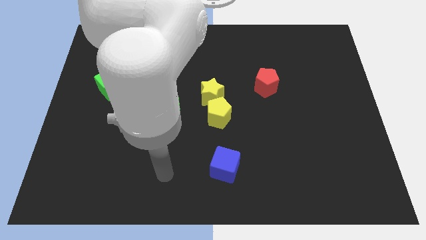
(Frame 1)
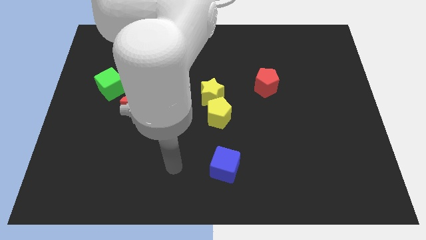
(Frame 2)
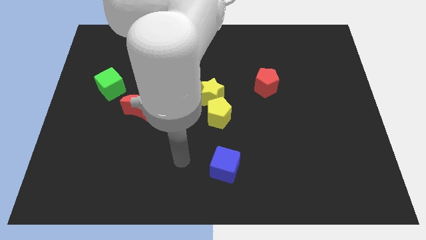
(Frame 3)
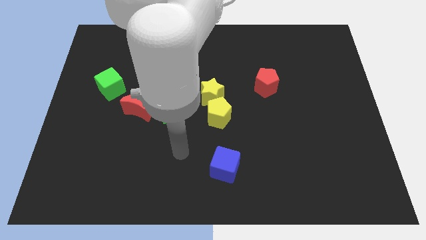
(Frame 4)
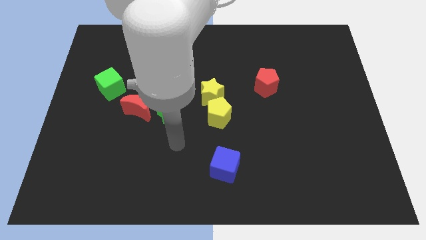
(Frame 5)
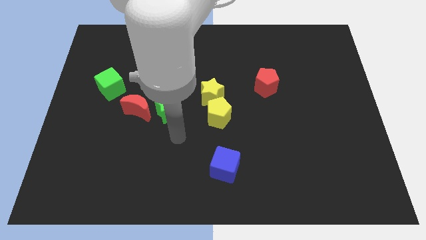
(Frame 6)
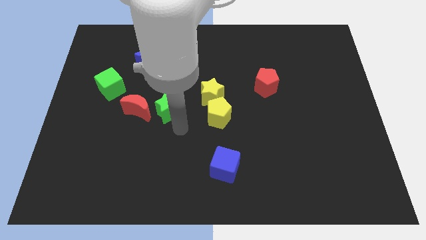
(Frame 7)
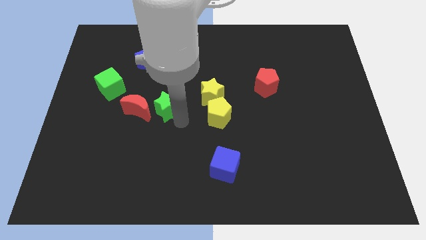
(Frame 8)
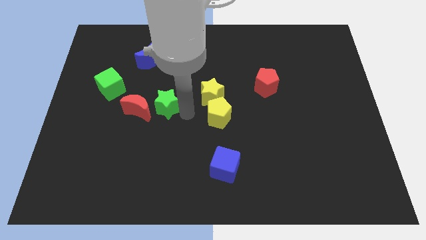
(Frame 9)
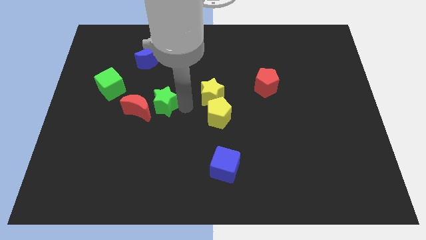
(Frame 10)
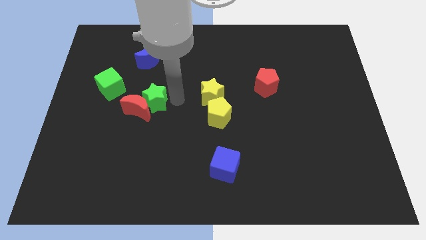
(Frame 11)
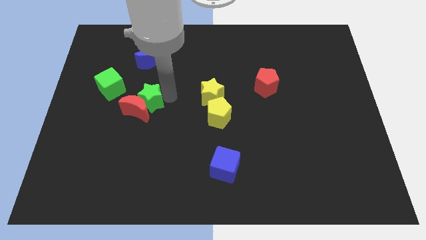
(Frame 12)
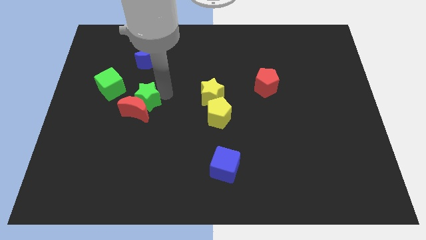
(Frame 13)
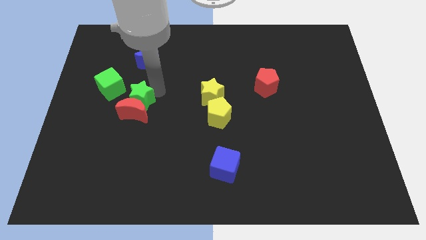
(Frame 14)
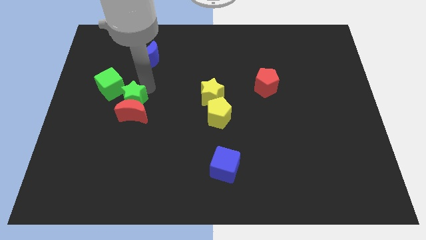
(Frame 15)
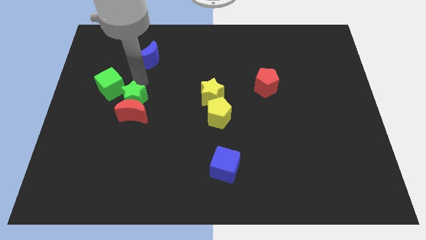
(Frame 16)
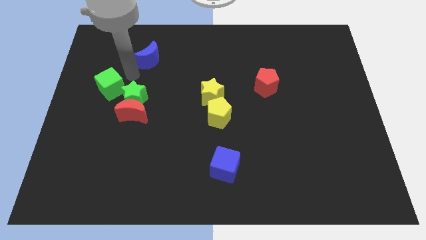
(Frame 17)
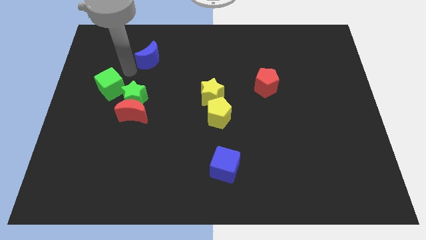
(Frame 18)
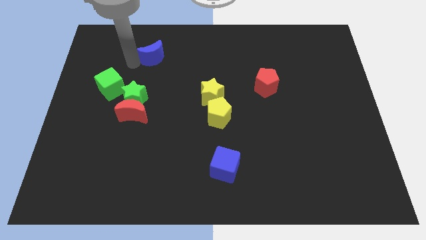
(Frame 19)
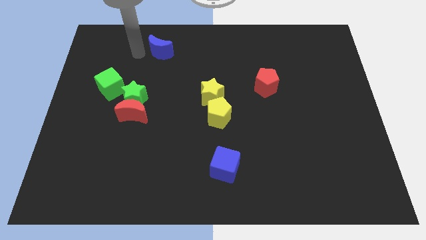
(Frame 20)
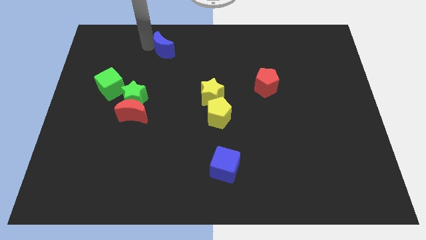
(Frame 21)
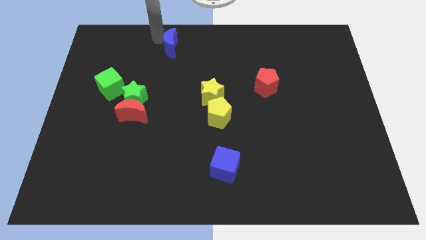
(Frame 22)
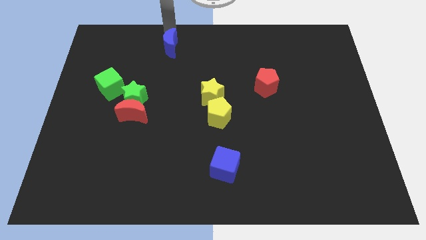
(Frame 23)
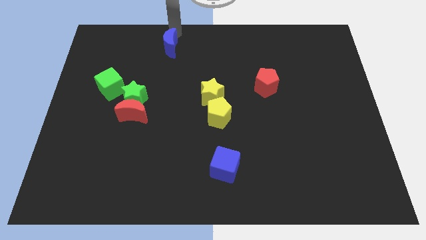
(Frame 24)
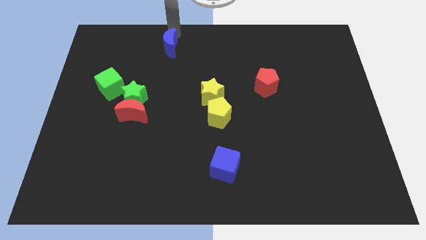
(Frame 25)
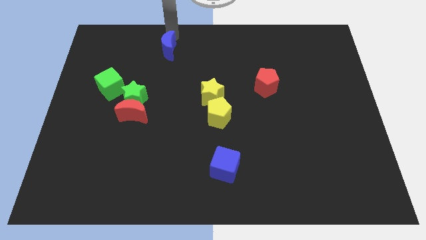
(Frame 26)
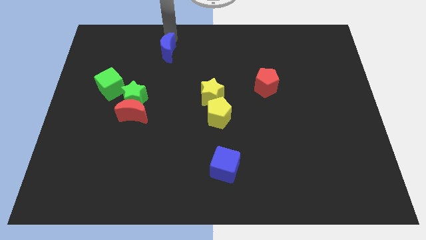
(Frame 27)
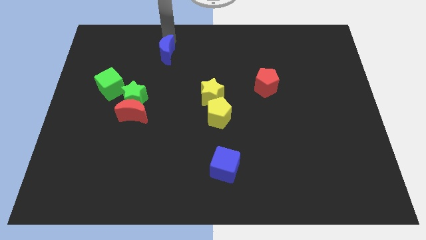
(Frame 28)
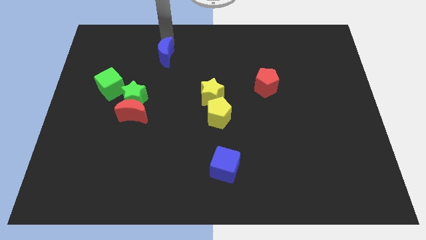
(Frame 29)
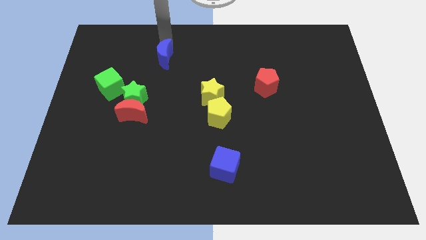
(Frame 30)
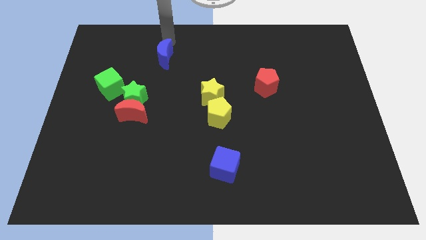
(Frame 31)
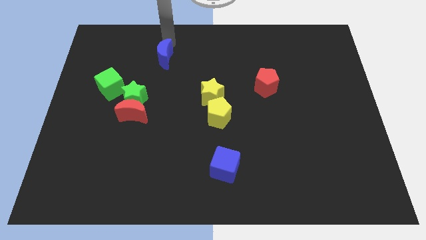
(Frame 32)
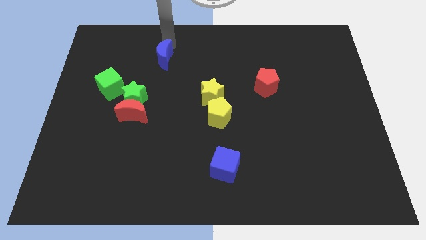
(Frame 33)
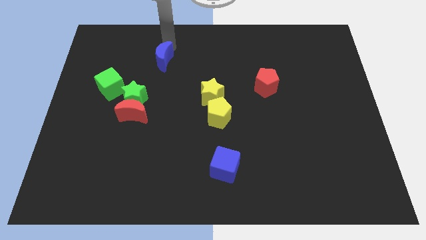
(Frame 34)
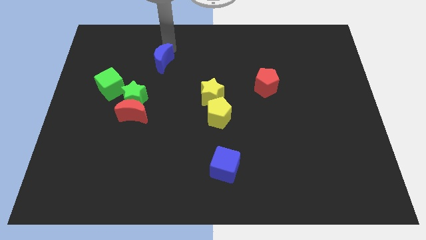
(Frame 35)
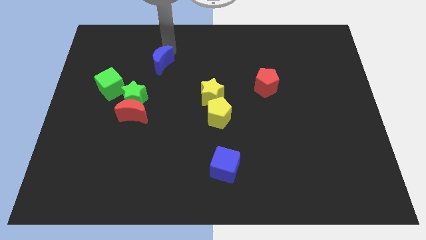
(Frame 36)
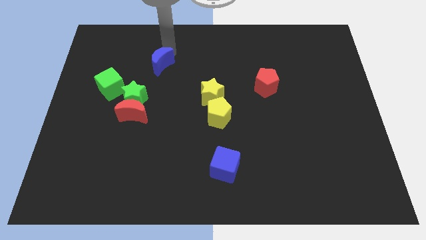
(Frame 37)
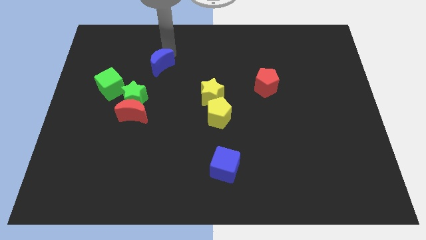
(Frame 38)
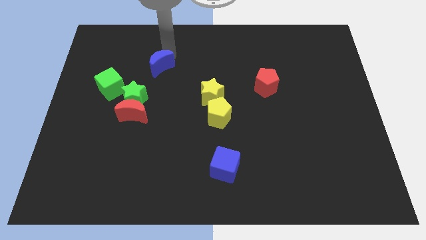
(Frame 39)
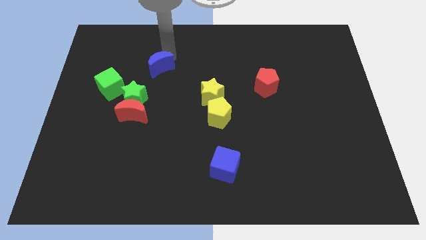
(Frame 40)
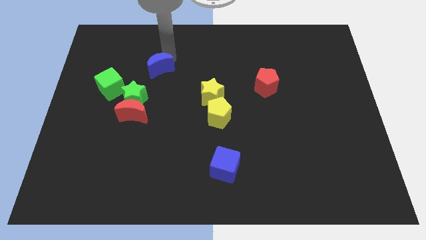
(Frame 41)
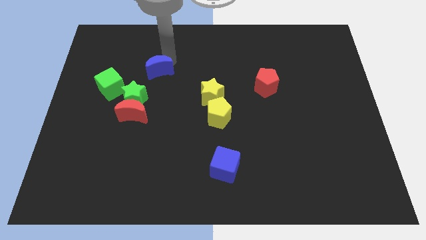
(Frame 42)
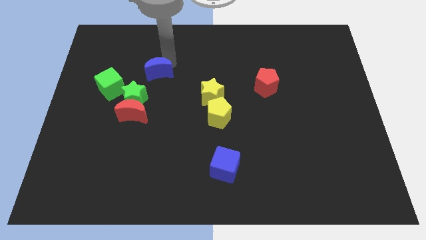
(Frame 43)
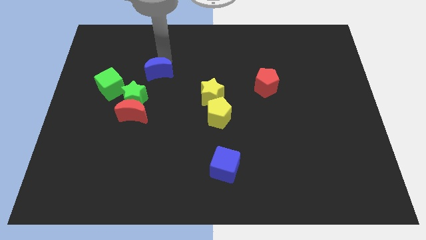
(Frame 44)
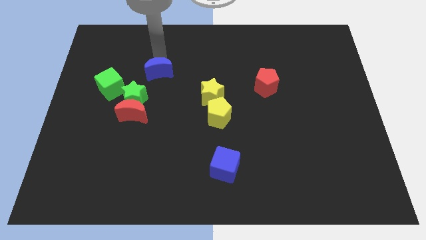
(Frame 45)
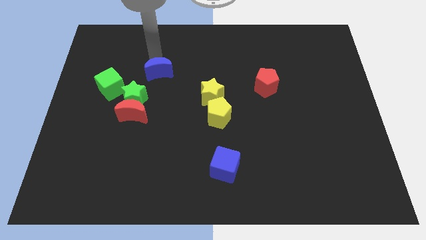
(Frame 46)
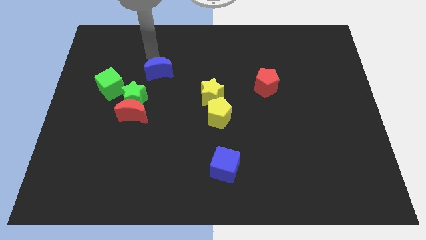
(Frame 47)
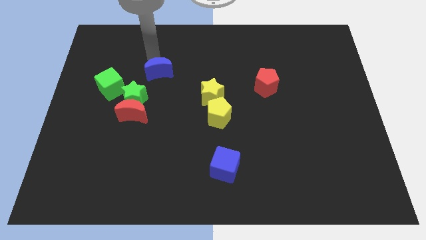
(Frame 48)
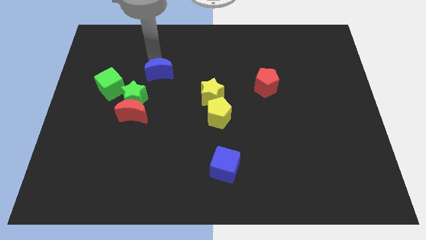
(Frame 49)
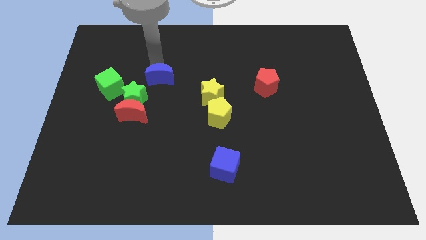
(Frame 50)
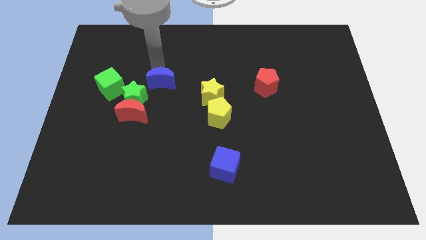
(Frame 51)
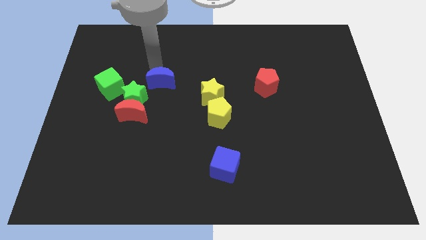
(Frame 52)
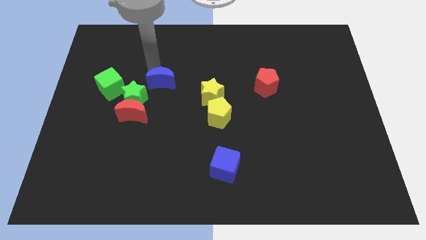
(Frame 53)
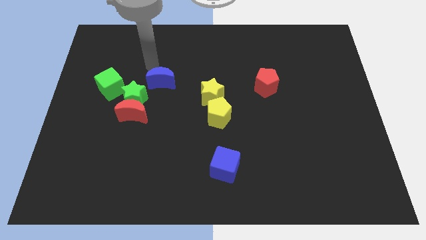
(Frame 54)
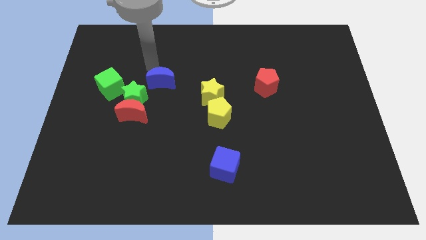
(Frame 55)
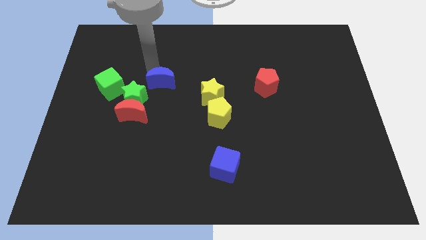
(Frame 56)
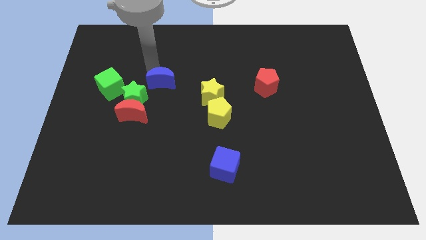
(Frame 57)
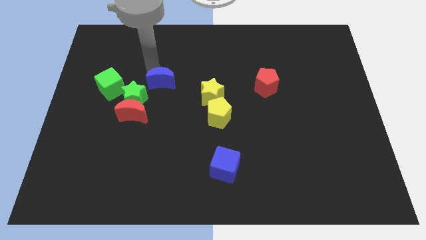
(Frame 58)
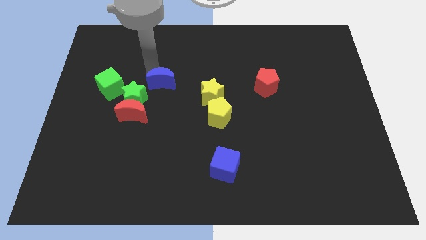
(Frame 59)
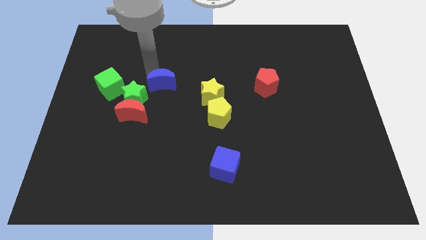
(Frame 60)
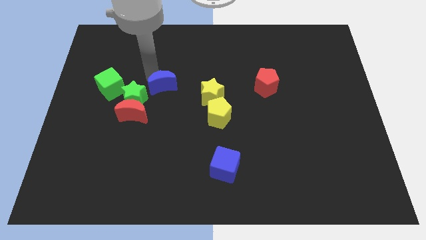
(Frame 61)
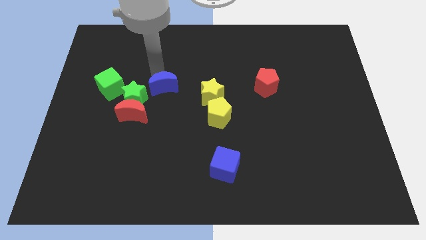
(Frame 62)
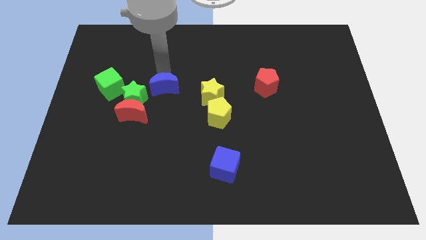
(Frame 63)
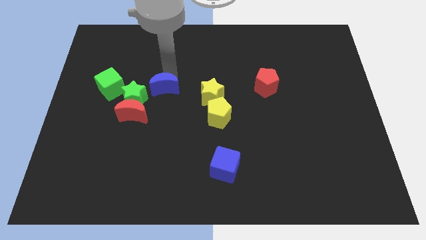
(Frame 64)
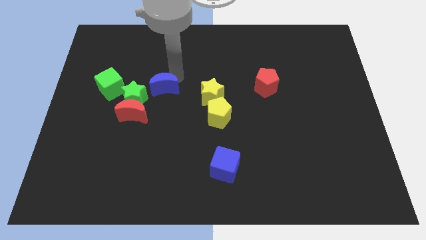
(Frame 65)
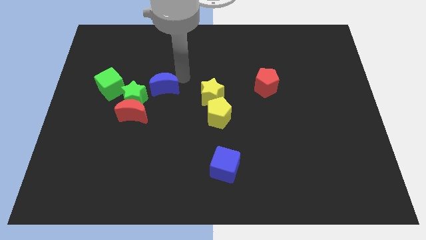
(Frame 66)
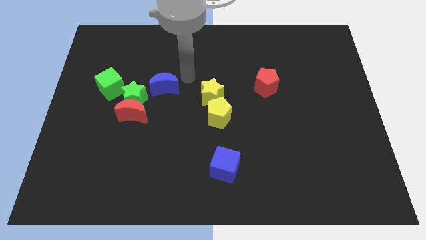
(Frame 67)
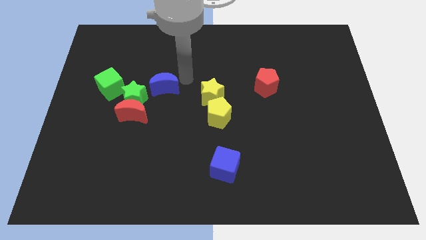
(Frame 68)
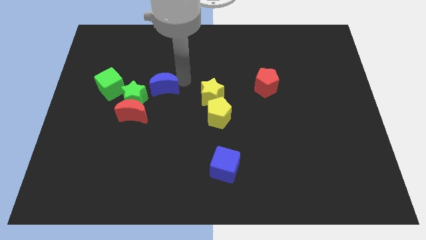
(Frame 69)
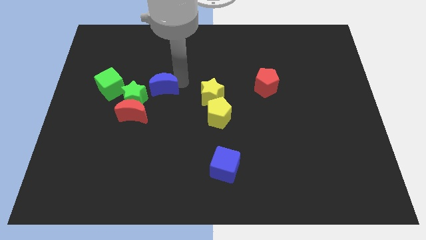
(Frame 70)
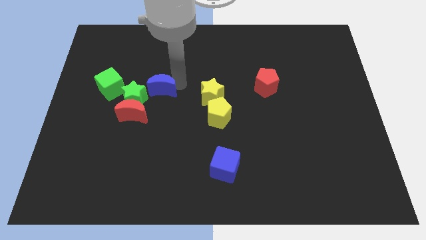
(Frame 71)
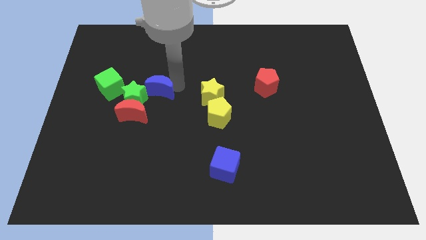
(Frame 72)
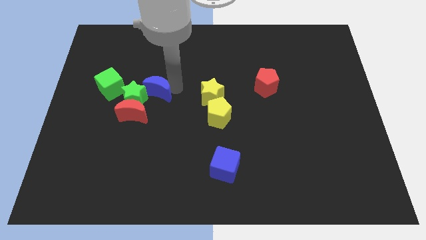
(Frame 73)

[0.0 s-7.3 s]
move the blue moon next to the green star
